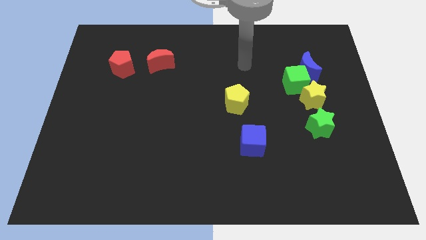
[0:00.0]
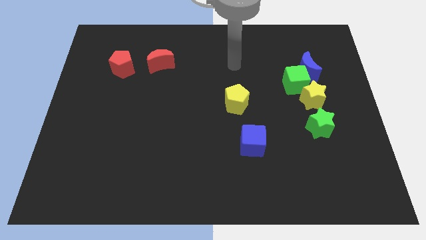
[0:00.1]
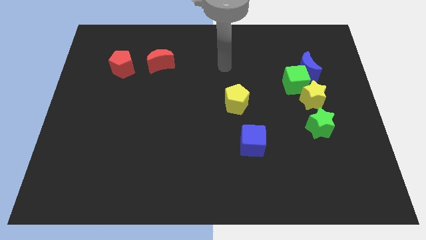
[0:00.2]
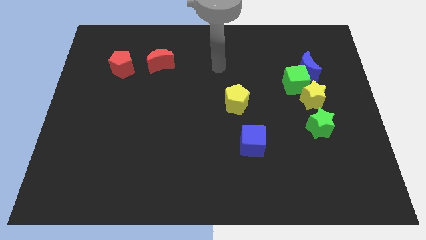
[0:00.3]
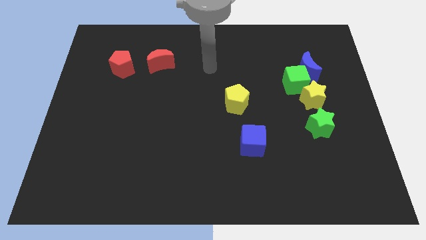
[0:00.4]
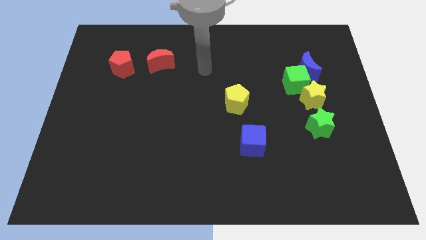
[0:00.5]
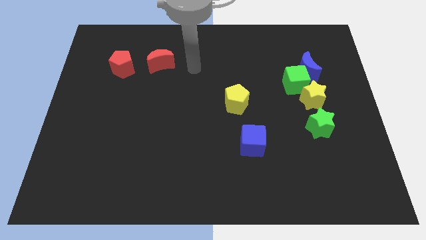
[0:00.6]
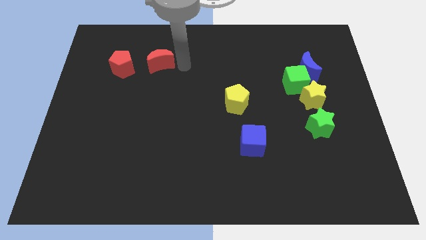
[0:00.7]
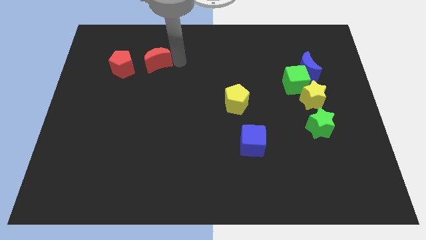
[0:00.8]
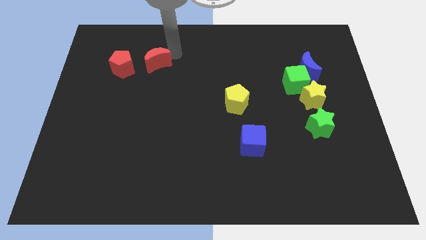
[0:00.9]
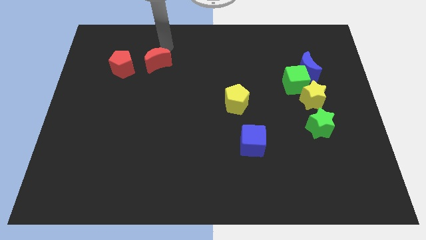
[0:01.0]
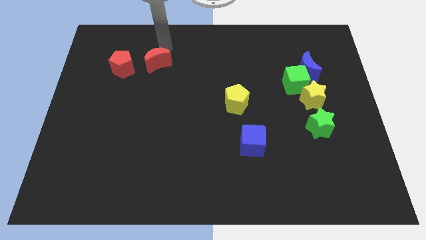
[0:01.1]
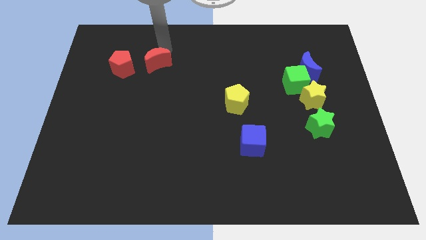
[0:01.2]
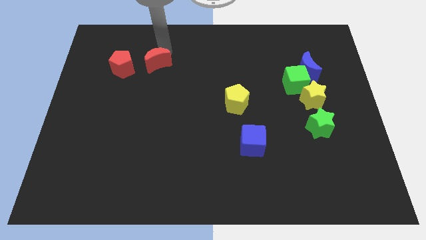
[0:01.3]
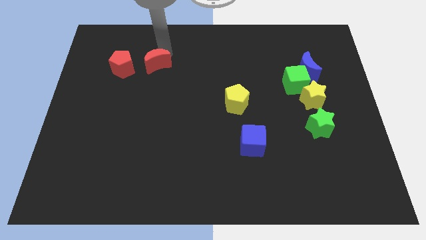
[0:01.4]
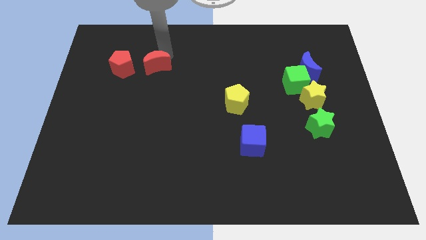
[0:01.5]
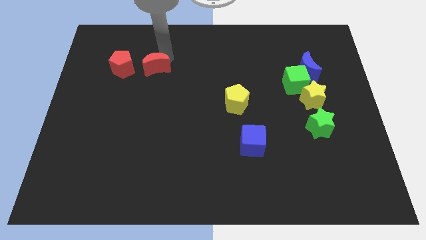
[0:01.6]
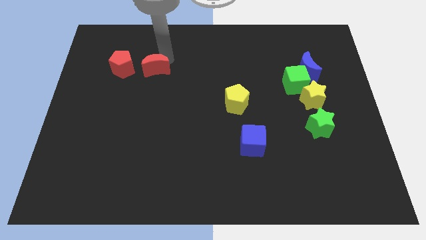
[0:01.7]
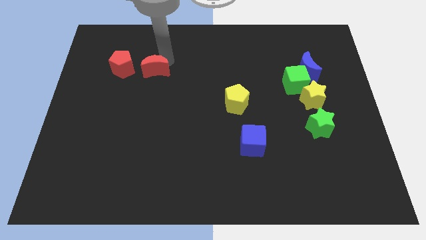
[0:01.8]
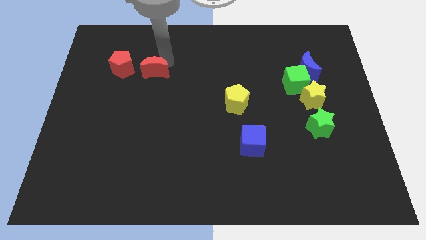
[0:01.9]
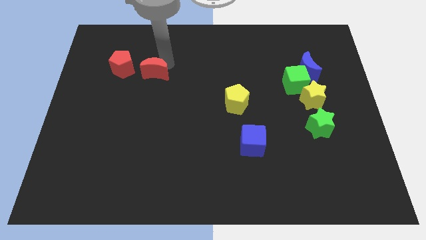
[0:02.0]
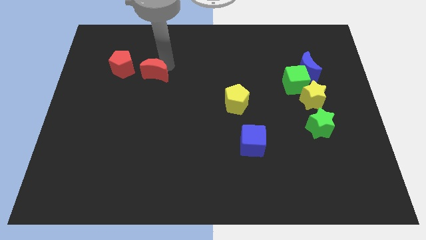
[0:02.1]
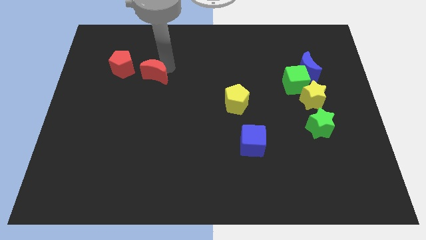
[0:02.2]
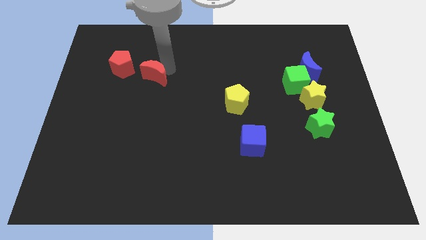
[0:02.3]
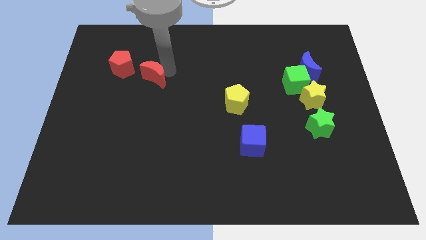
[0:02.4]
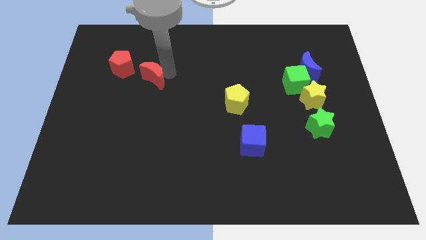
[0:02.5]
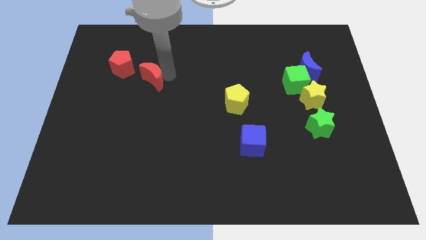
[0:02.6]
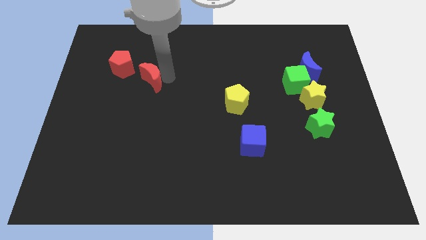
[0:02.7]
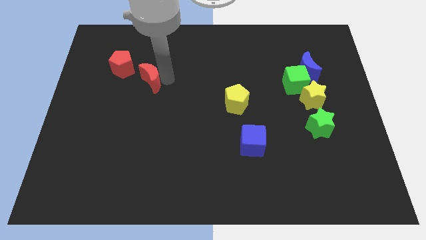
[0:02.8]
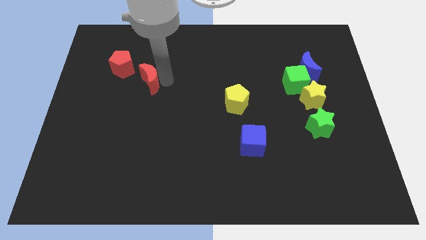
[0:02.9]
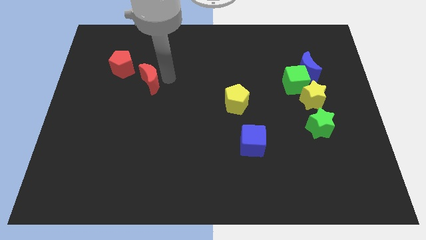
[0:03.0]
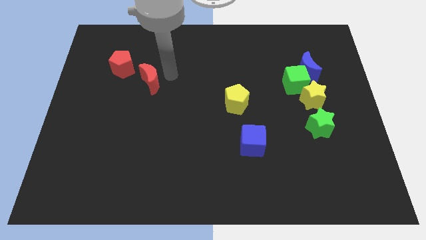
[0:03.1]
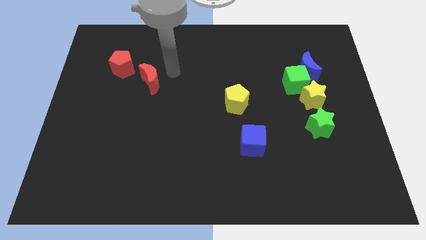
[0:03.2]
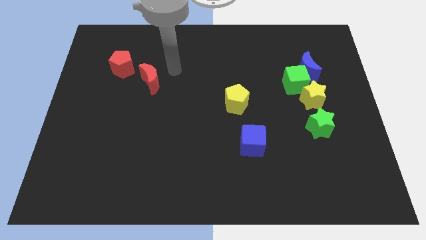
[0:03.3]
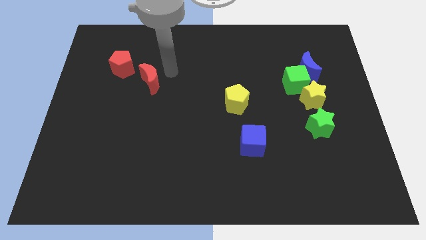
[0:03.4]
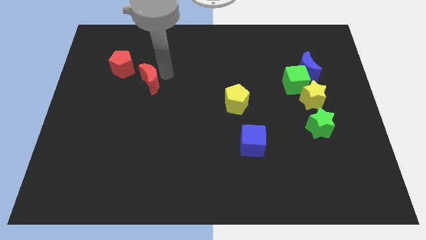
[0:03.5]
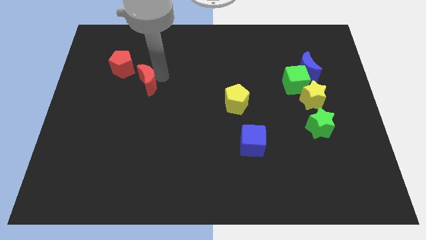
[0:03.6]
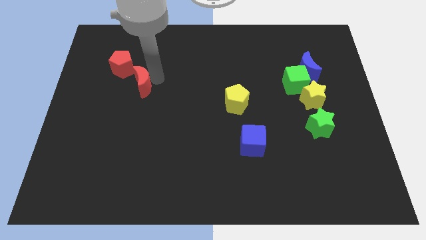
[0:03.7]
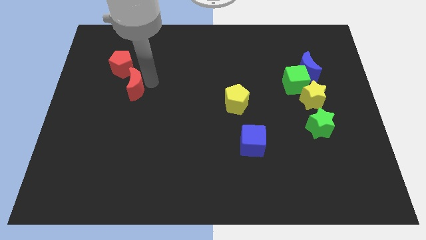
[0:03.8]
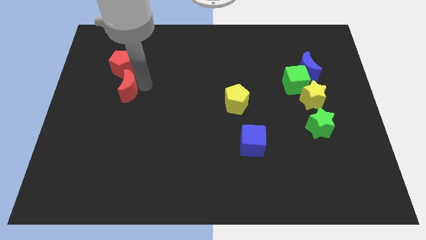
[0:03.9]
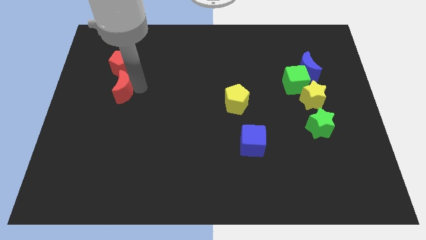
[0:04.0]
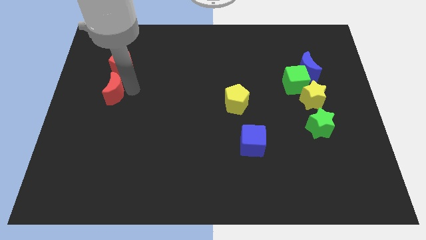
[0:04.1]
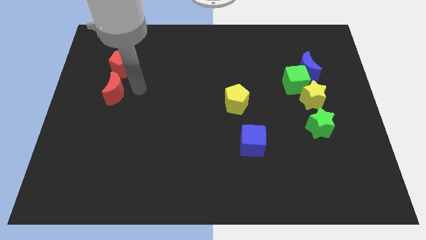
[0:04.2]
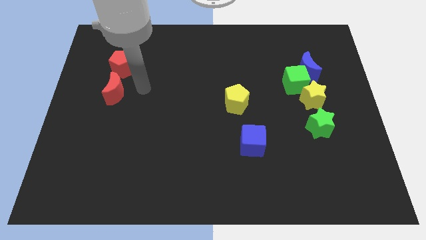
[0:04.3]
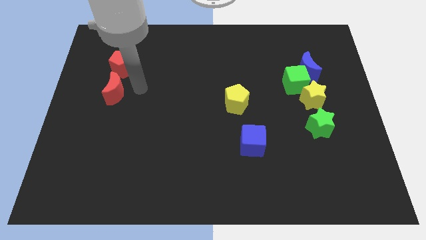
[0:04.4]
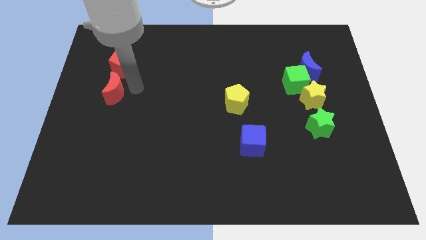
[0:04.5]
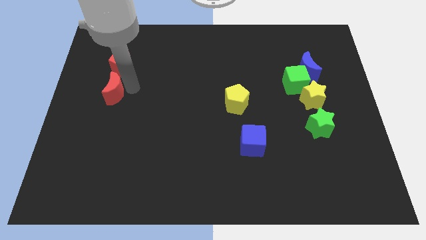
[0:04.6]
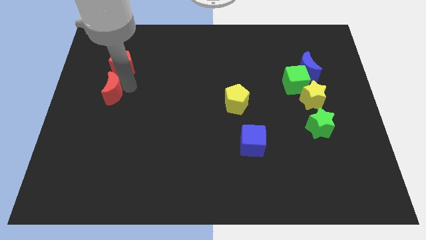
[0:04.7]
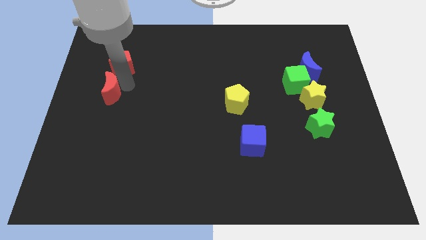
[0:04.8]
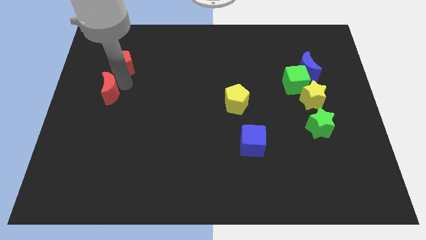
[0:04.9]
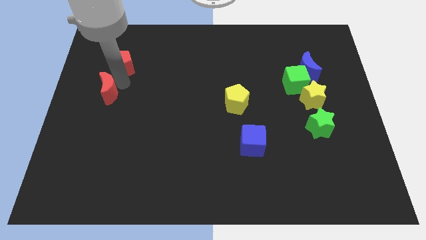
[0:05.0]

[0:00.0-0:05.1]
move the red moon to the left side

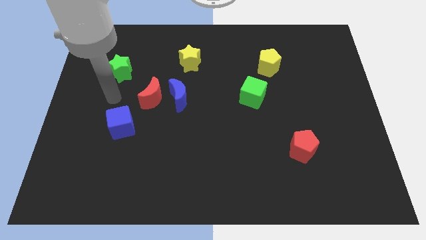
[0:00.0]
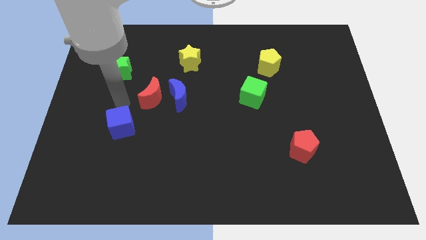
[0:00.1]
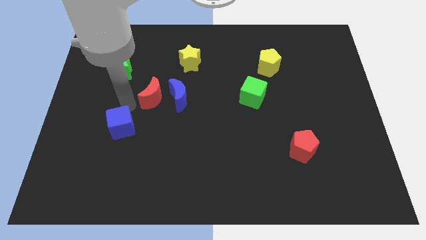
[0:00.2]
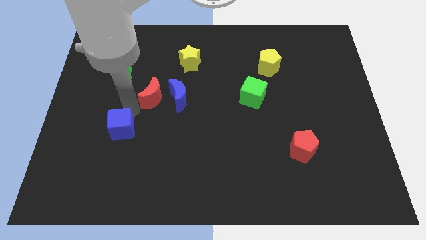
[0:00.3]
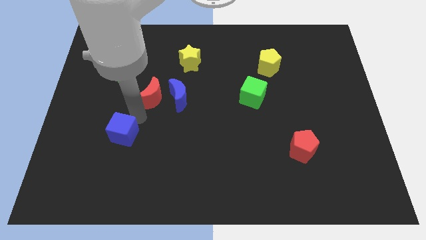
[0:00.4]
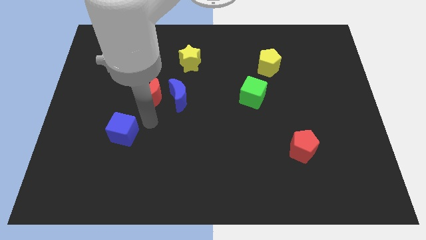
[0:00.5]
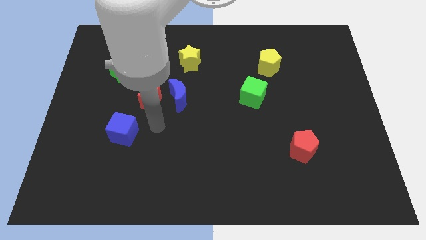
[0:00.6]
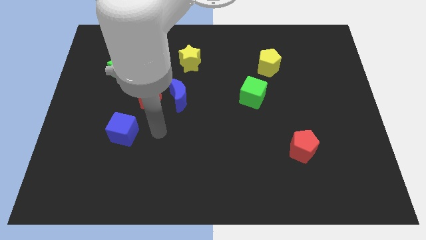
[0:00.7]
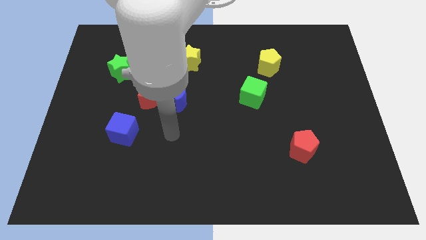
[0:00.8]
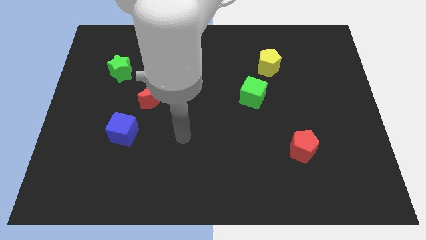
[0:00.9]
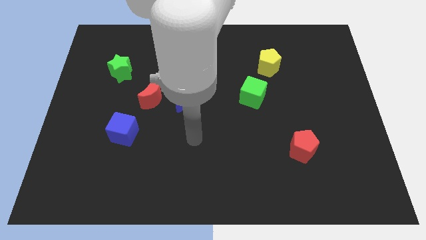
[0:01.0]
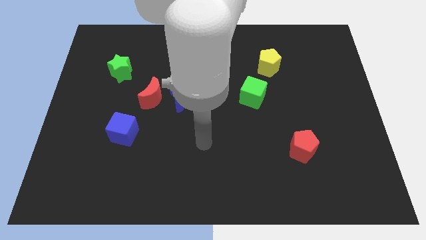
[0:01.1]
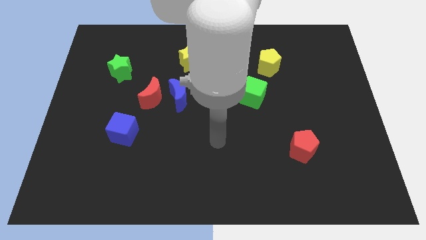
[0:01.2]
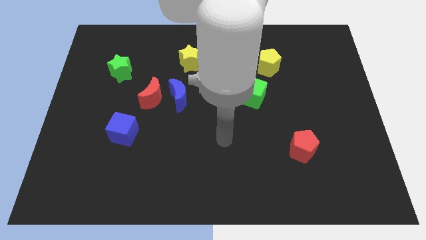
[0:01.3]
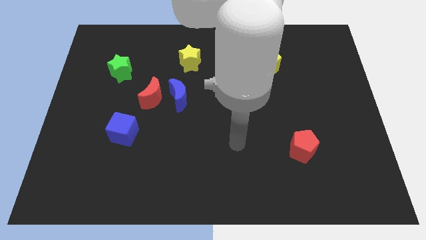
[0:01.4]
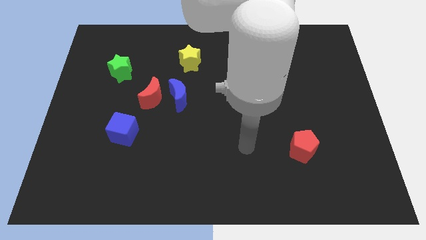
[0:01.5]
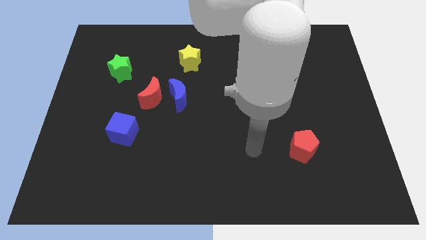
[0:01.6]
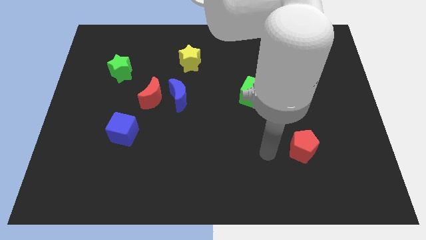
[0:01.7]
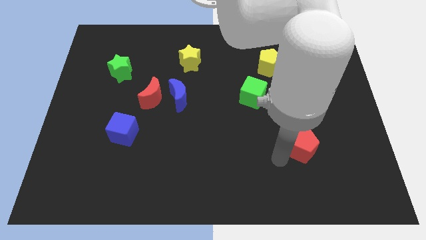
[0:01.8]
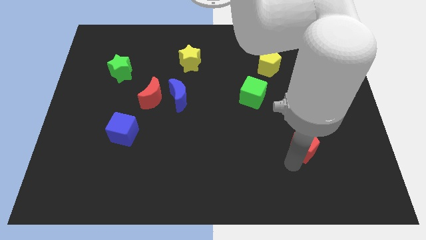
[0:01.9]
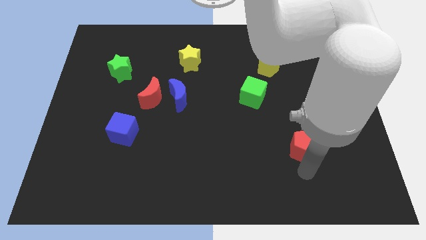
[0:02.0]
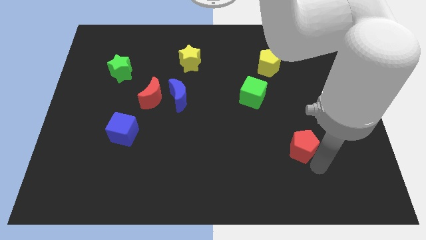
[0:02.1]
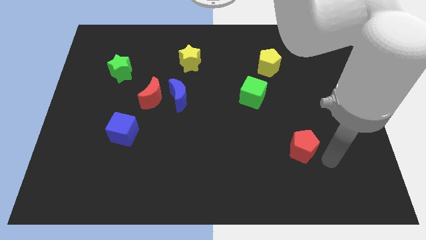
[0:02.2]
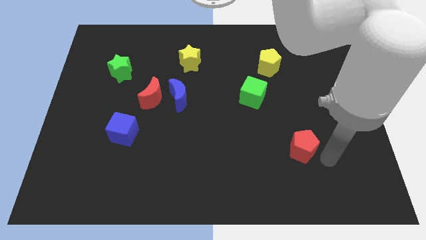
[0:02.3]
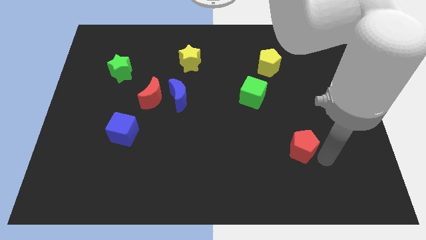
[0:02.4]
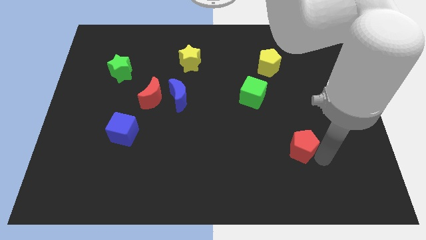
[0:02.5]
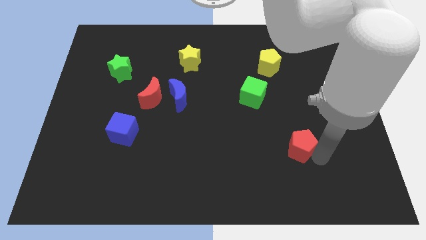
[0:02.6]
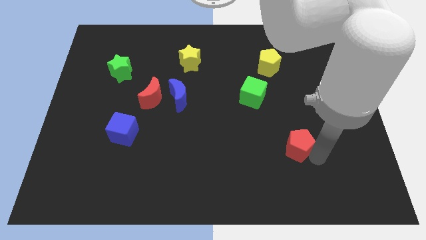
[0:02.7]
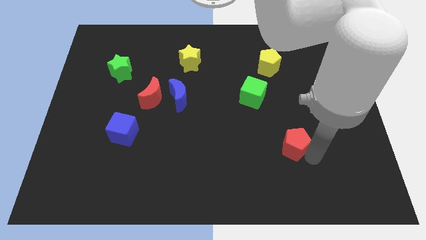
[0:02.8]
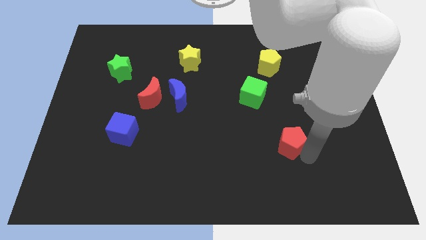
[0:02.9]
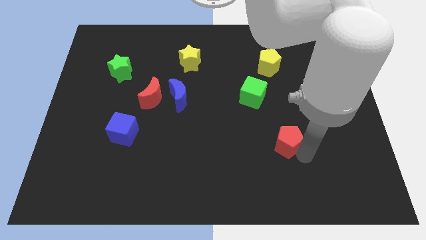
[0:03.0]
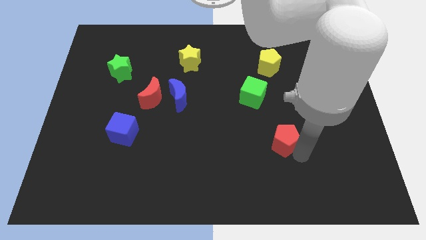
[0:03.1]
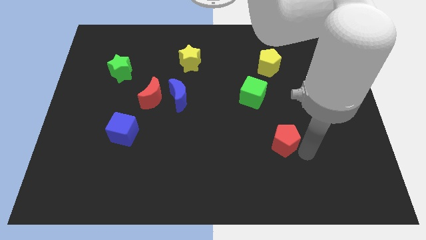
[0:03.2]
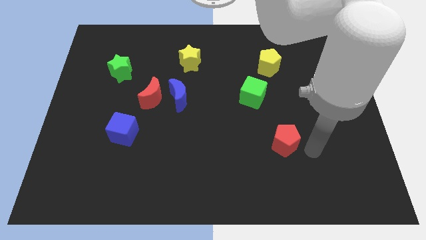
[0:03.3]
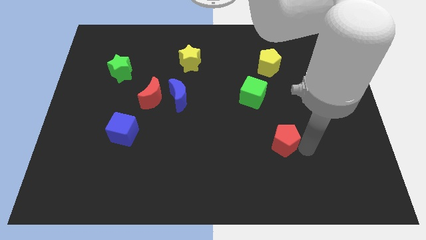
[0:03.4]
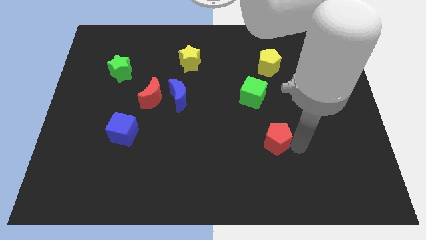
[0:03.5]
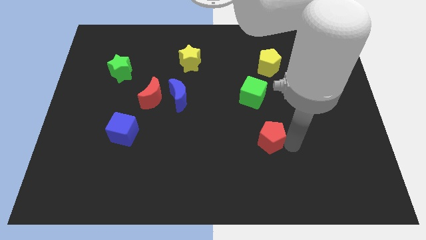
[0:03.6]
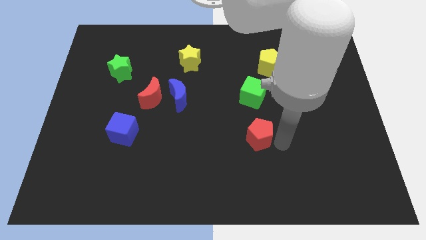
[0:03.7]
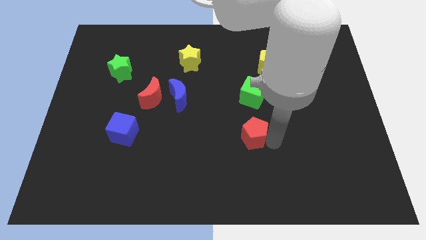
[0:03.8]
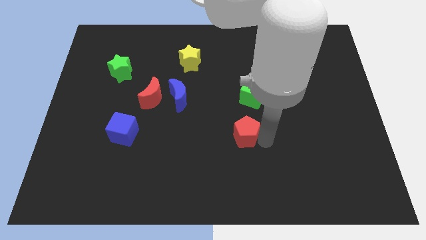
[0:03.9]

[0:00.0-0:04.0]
put the red pentagon to the center
